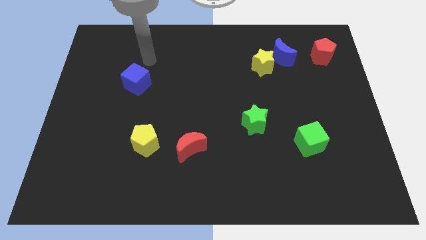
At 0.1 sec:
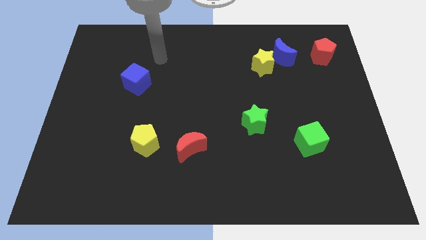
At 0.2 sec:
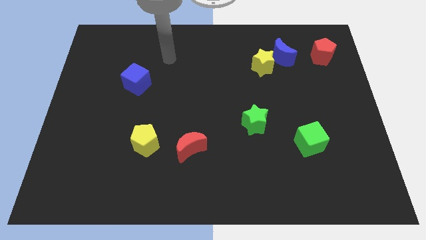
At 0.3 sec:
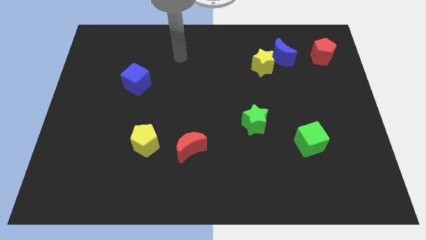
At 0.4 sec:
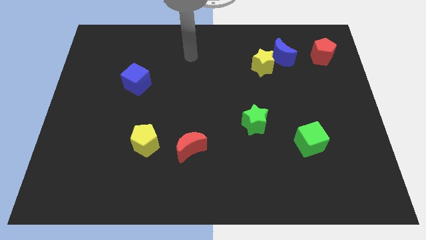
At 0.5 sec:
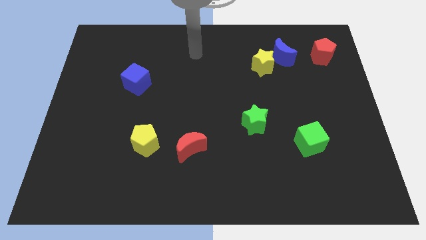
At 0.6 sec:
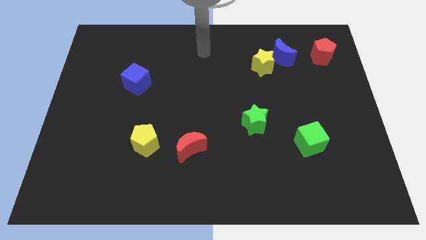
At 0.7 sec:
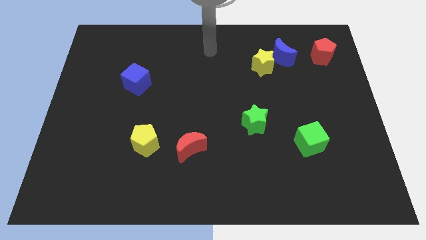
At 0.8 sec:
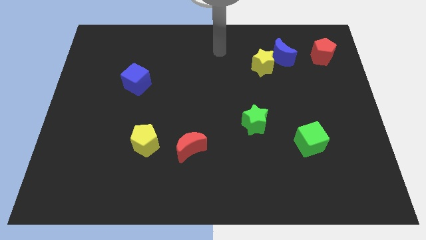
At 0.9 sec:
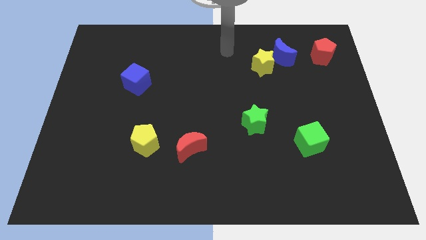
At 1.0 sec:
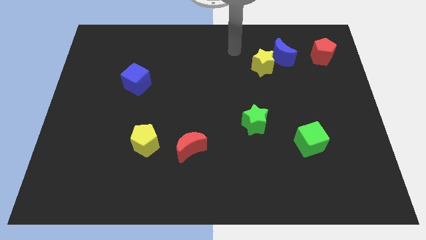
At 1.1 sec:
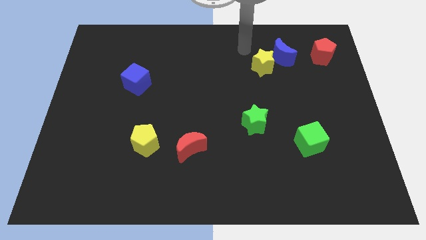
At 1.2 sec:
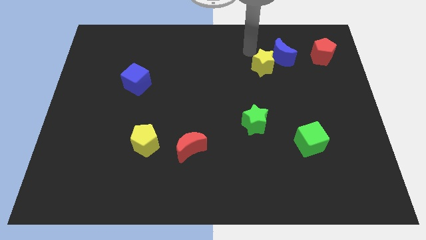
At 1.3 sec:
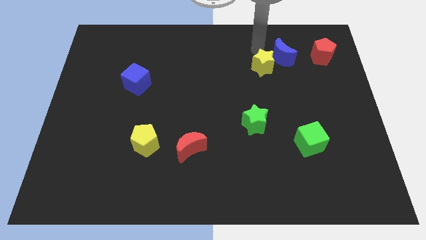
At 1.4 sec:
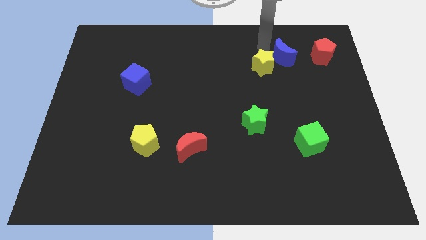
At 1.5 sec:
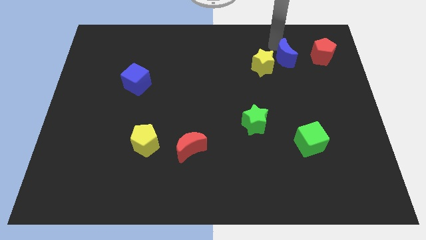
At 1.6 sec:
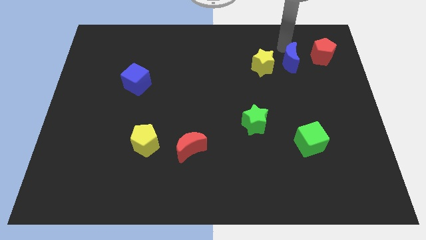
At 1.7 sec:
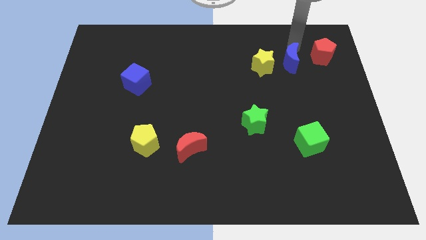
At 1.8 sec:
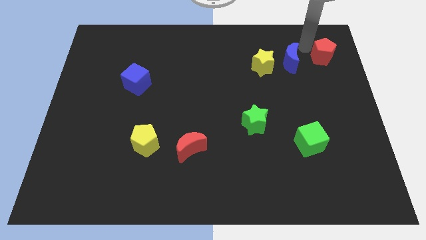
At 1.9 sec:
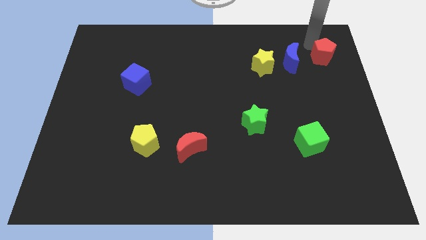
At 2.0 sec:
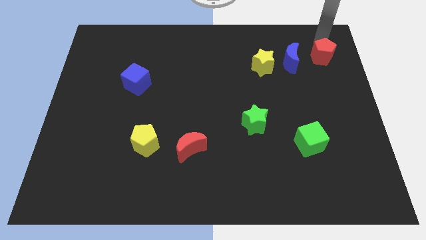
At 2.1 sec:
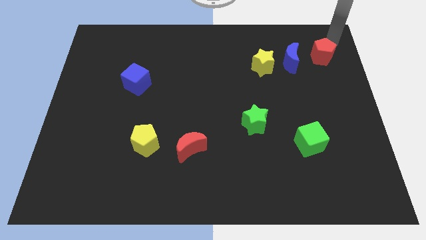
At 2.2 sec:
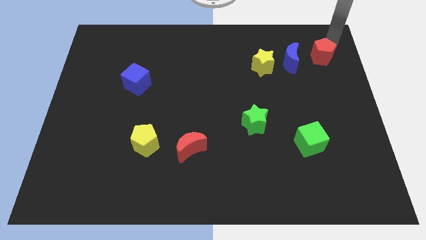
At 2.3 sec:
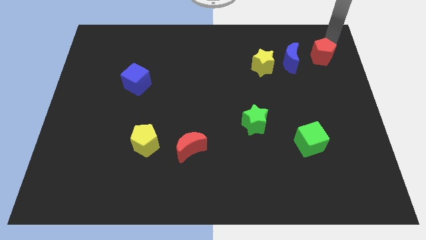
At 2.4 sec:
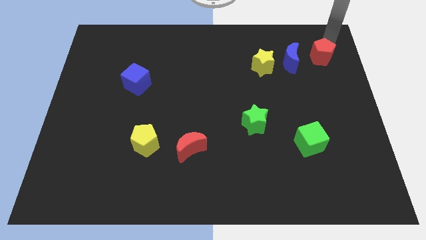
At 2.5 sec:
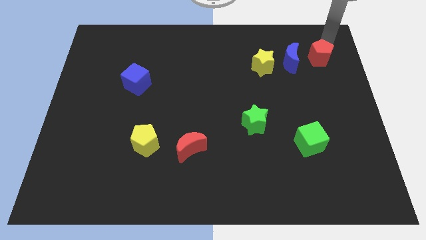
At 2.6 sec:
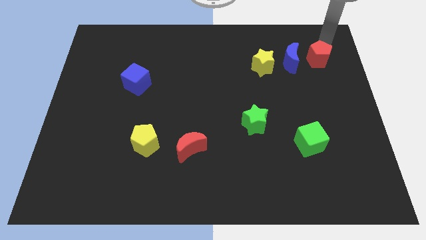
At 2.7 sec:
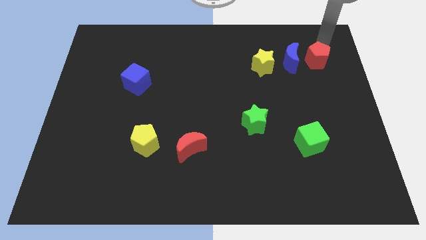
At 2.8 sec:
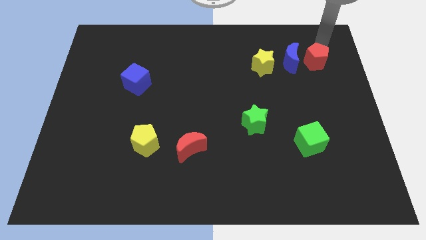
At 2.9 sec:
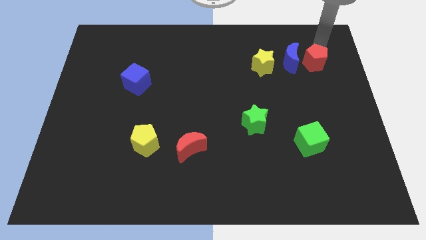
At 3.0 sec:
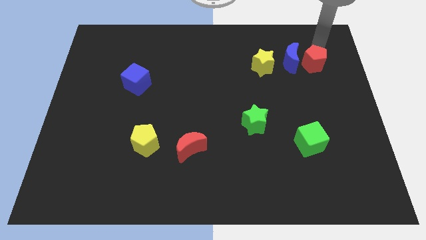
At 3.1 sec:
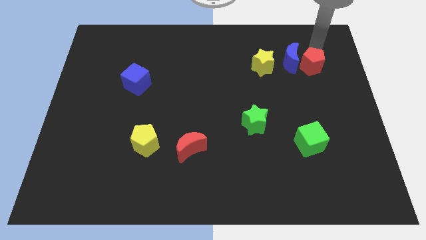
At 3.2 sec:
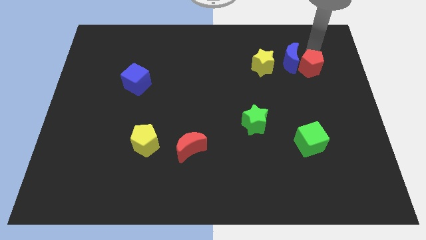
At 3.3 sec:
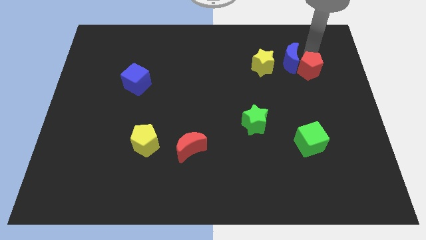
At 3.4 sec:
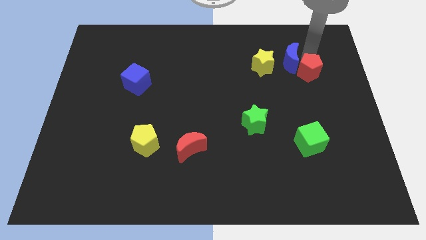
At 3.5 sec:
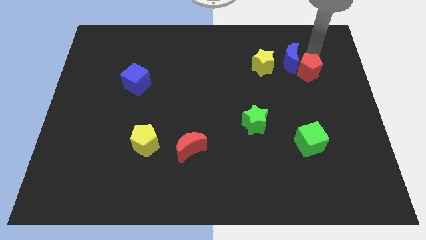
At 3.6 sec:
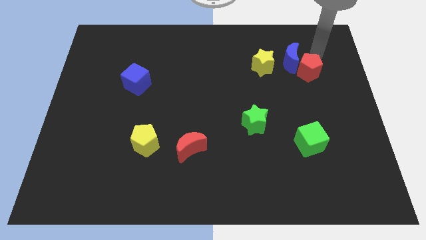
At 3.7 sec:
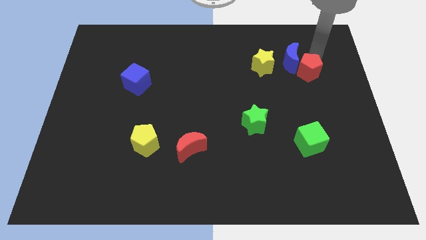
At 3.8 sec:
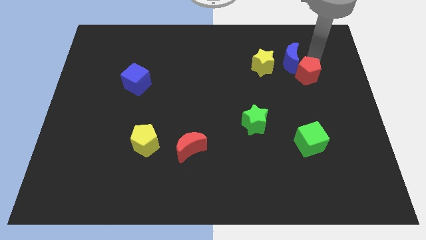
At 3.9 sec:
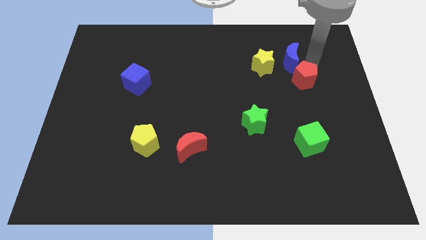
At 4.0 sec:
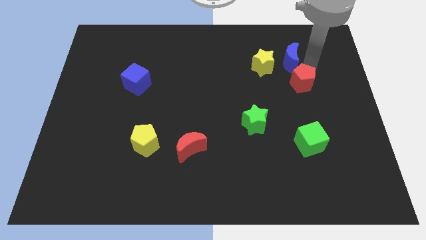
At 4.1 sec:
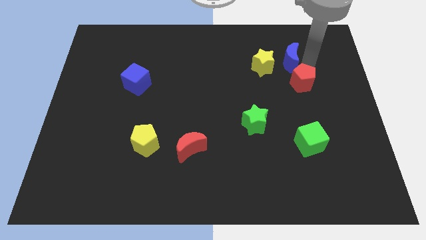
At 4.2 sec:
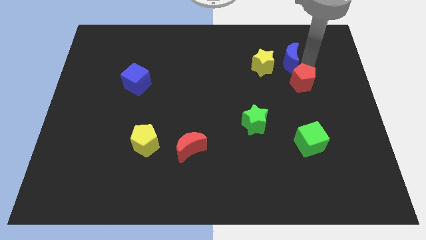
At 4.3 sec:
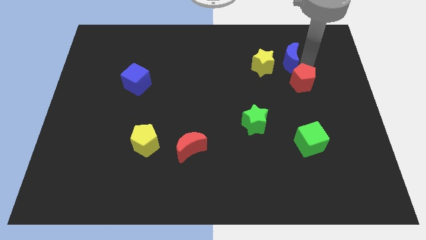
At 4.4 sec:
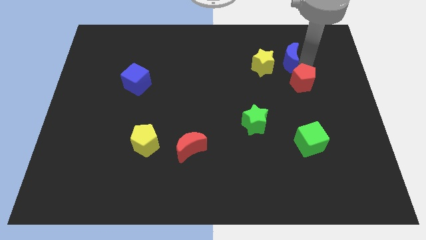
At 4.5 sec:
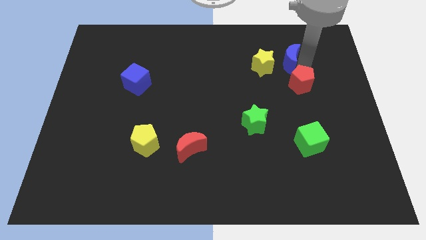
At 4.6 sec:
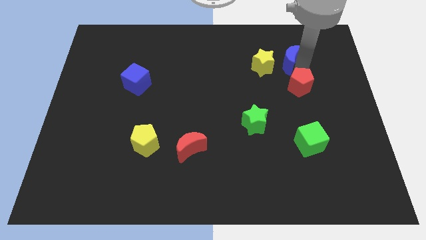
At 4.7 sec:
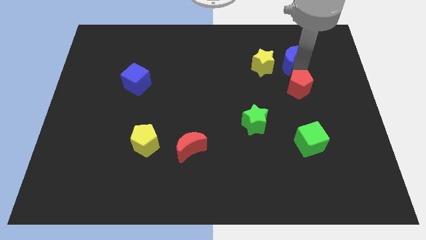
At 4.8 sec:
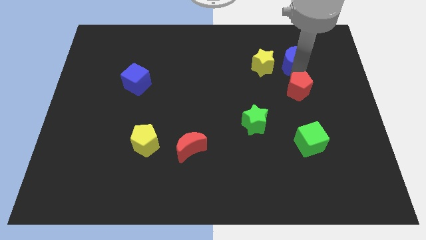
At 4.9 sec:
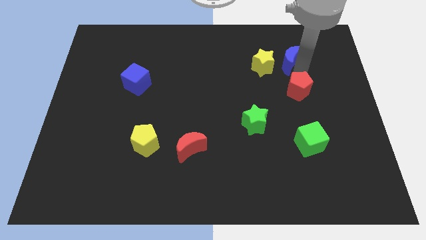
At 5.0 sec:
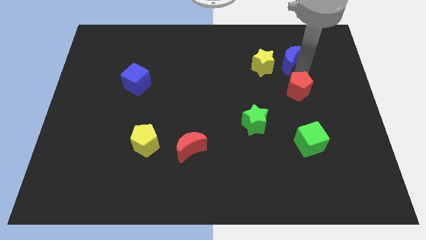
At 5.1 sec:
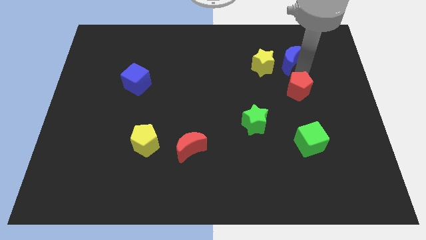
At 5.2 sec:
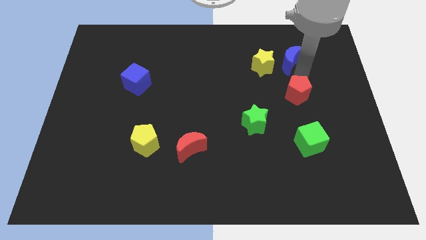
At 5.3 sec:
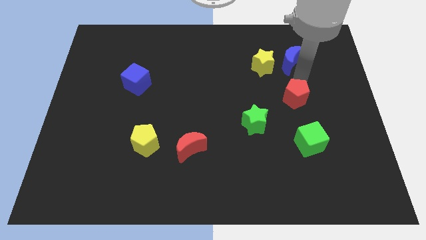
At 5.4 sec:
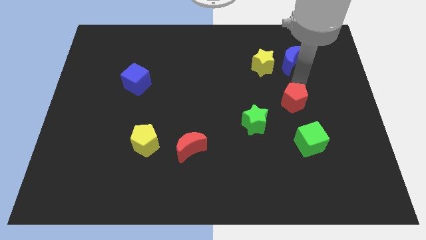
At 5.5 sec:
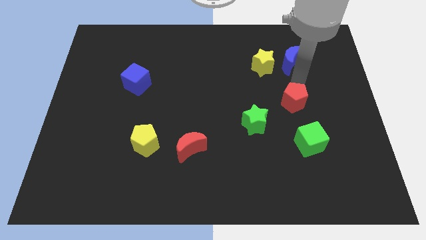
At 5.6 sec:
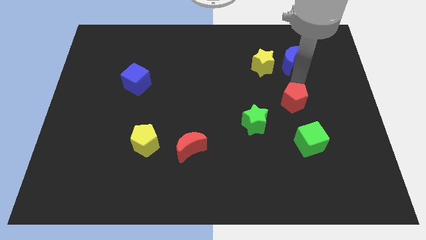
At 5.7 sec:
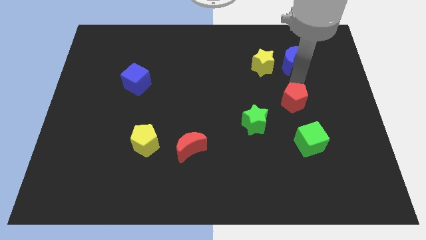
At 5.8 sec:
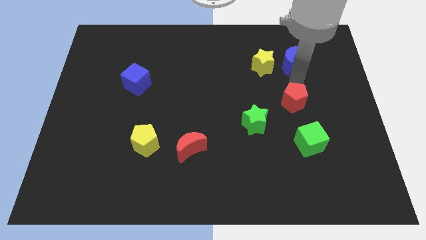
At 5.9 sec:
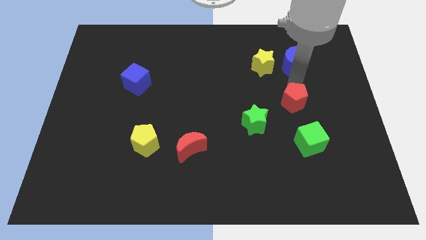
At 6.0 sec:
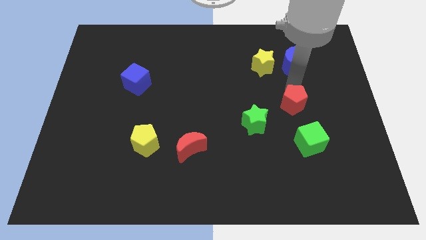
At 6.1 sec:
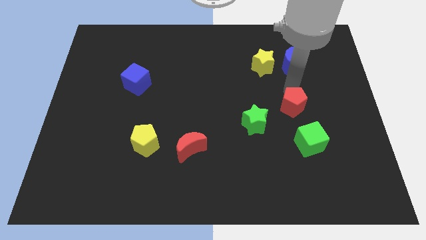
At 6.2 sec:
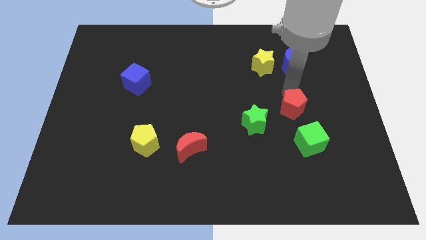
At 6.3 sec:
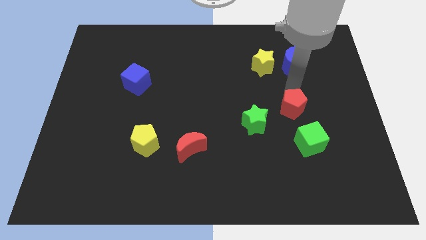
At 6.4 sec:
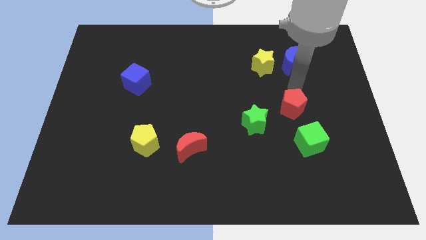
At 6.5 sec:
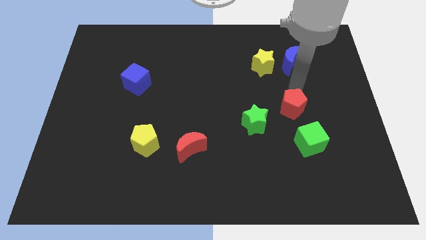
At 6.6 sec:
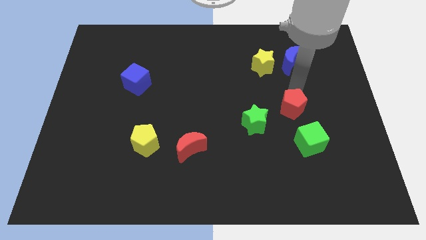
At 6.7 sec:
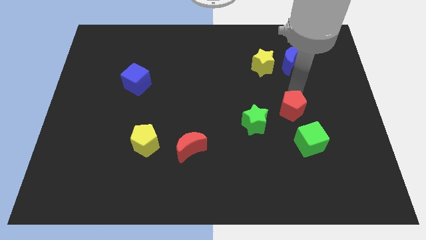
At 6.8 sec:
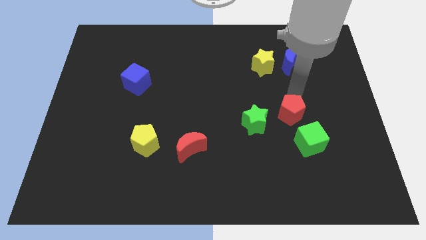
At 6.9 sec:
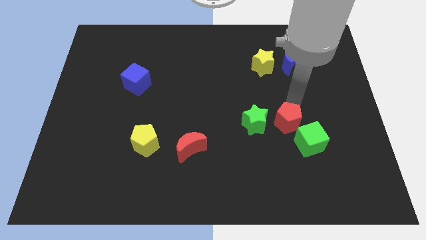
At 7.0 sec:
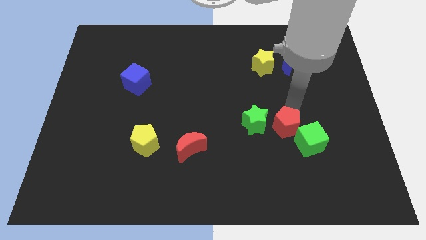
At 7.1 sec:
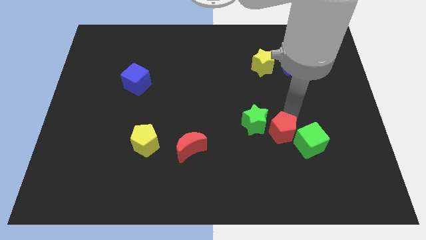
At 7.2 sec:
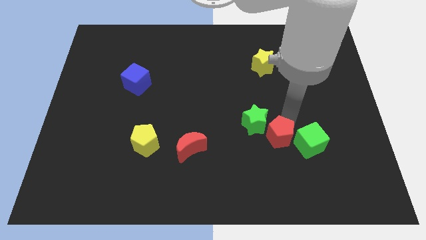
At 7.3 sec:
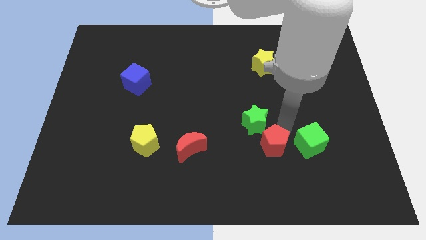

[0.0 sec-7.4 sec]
put the red pentagon to the bottom side of the green star
